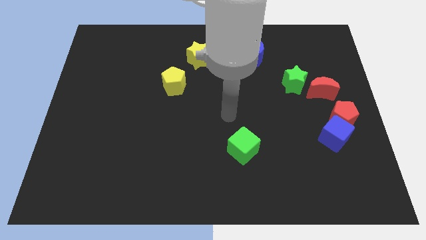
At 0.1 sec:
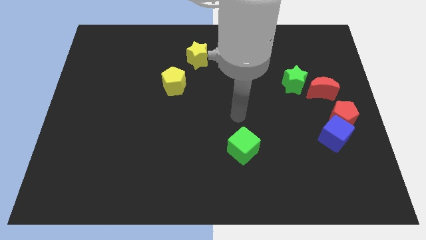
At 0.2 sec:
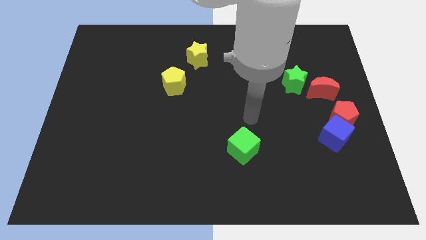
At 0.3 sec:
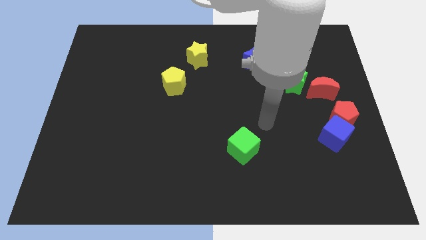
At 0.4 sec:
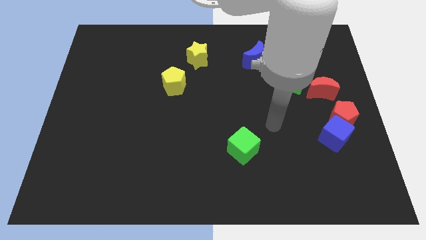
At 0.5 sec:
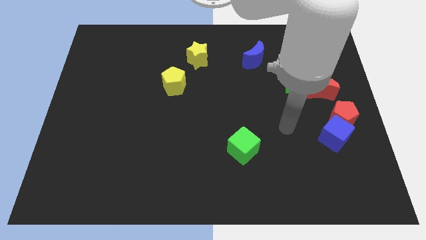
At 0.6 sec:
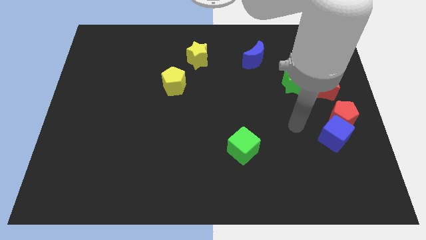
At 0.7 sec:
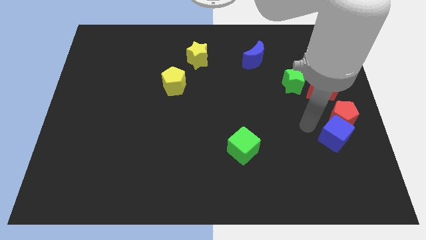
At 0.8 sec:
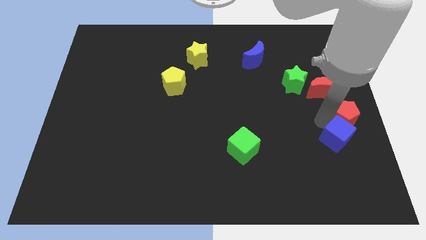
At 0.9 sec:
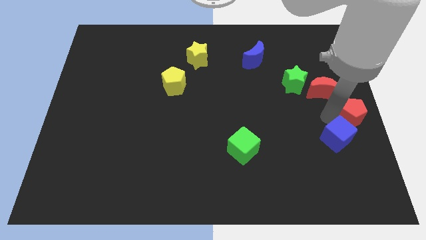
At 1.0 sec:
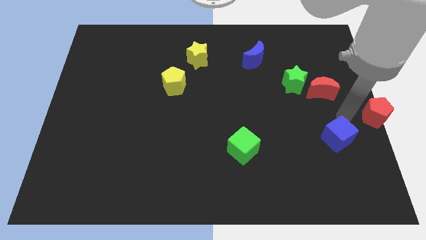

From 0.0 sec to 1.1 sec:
move the blue cube away from the red pentagon

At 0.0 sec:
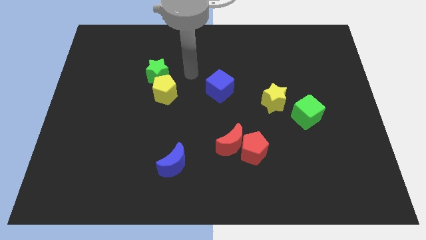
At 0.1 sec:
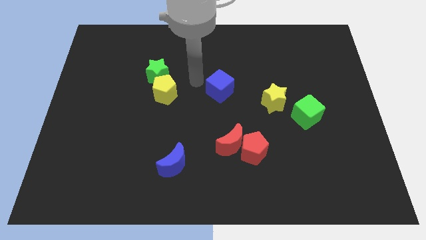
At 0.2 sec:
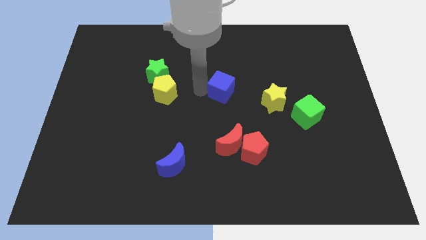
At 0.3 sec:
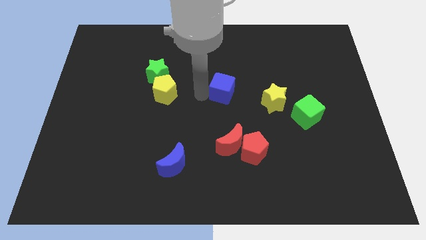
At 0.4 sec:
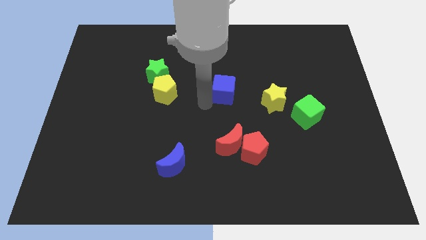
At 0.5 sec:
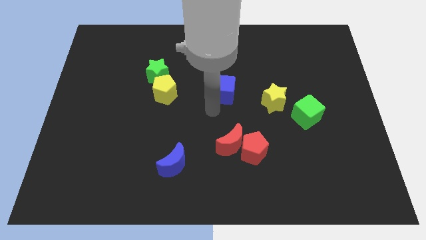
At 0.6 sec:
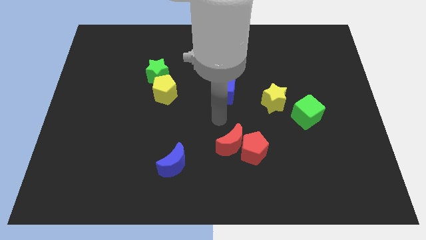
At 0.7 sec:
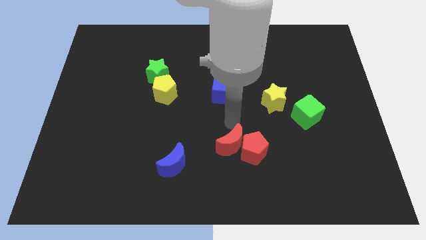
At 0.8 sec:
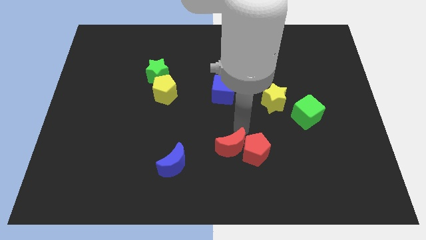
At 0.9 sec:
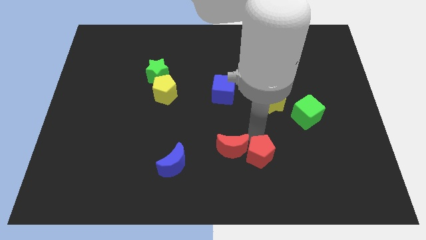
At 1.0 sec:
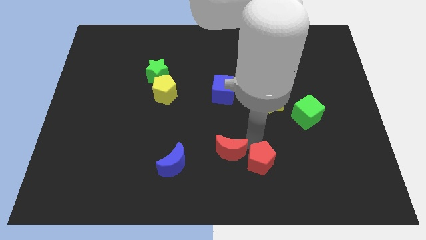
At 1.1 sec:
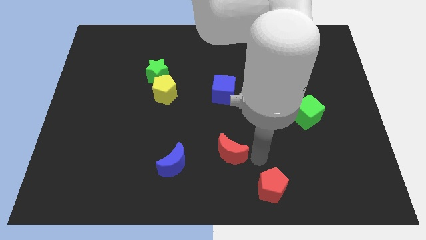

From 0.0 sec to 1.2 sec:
pull the red moon apart from the red pentagon

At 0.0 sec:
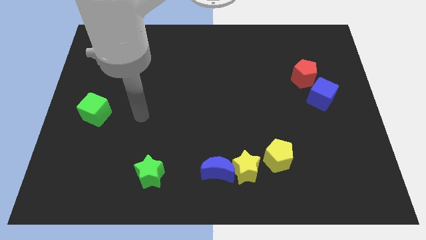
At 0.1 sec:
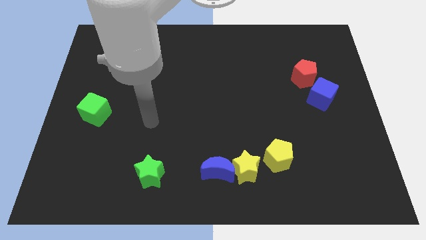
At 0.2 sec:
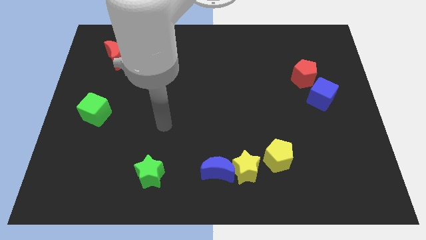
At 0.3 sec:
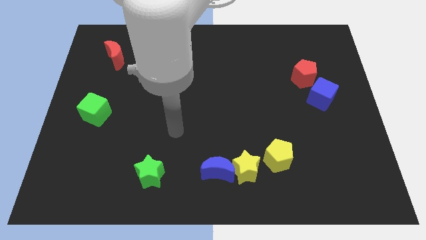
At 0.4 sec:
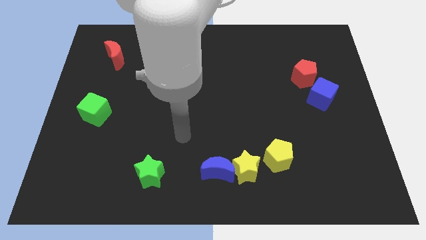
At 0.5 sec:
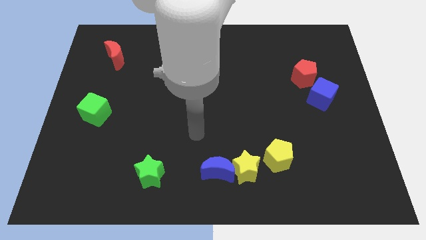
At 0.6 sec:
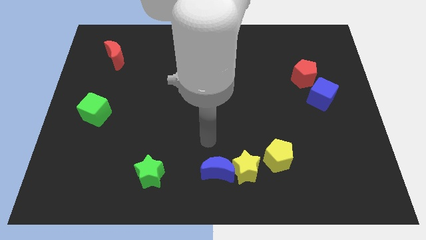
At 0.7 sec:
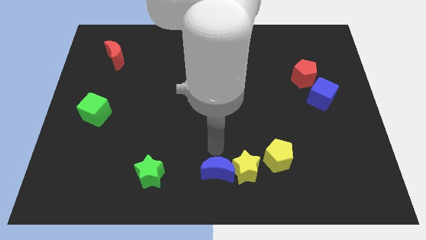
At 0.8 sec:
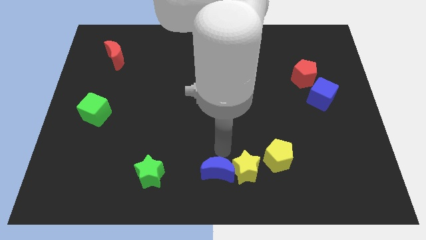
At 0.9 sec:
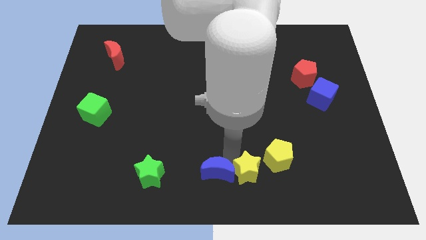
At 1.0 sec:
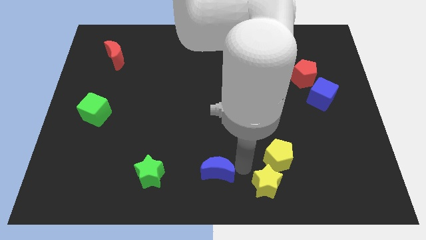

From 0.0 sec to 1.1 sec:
move the blue moon away from the yellow star

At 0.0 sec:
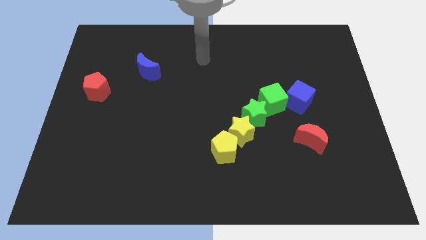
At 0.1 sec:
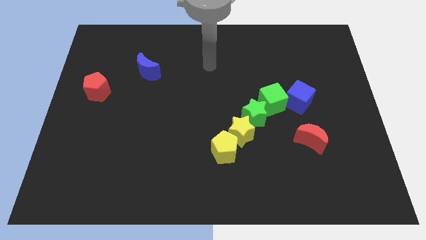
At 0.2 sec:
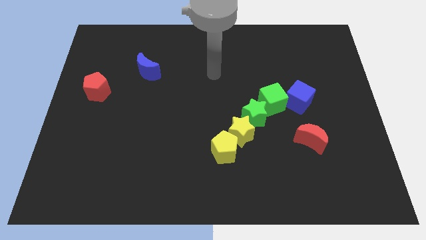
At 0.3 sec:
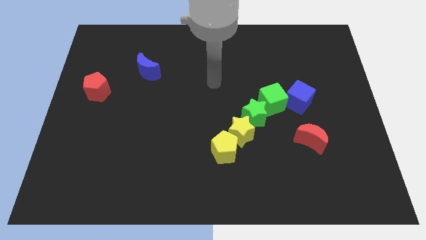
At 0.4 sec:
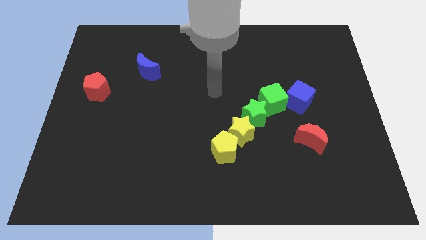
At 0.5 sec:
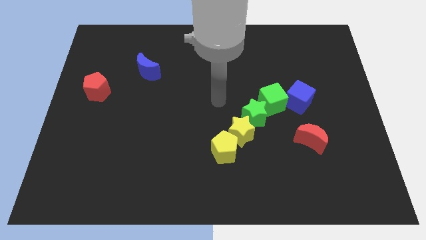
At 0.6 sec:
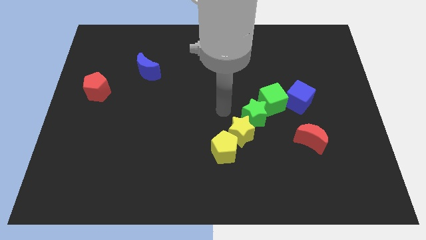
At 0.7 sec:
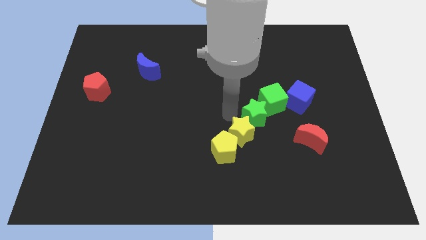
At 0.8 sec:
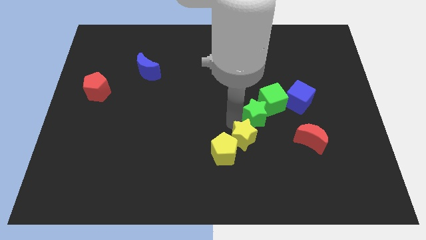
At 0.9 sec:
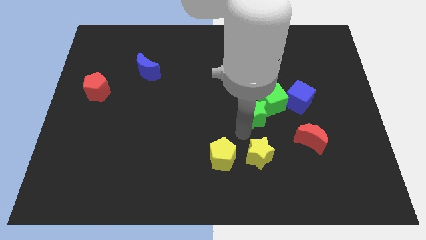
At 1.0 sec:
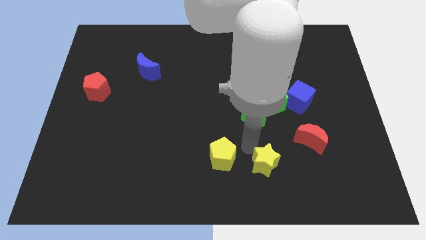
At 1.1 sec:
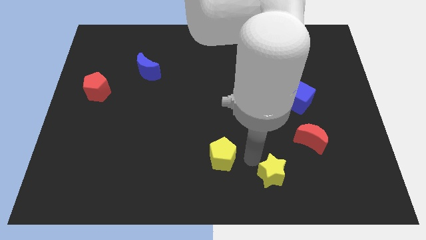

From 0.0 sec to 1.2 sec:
pull the yellow pentagon apart from the yellow star

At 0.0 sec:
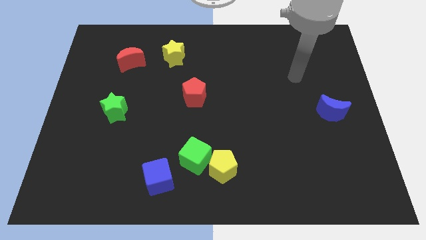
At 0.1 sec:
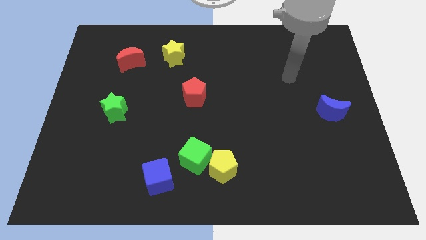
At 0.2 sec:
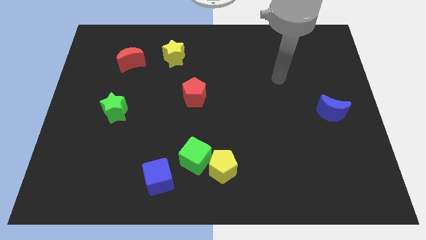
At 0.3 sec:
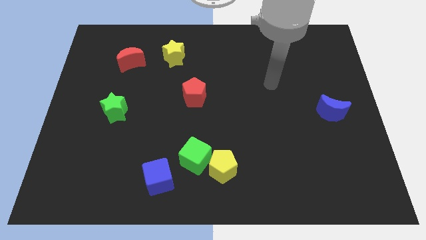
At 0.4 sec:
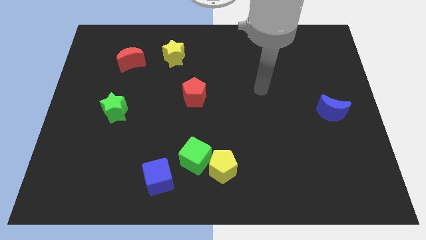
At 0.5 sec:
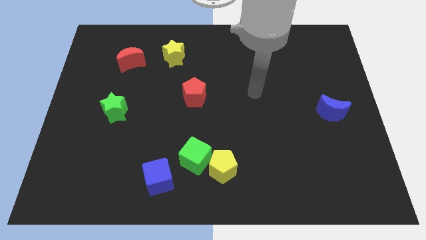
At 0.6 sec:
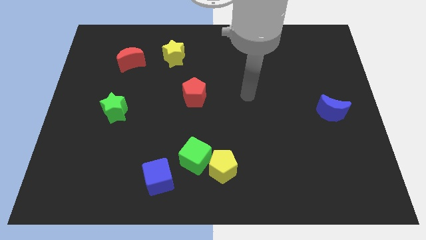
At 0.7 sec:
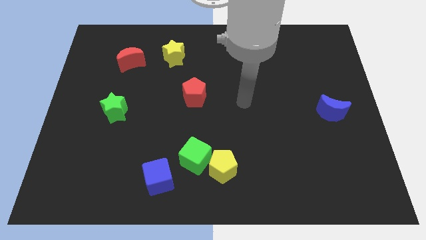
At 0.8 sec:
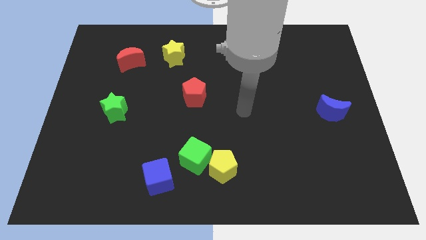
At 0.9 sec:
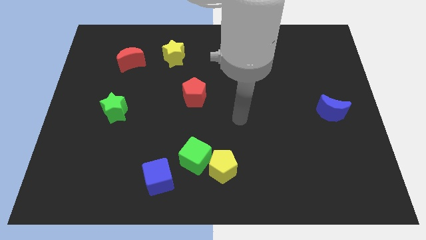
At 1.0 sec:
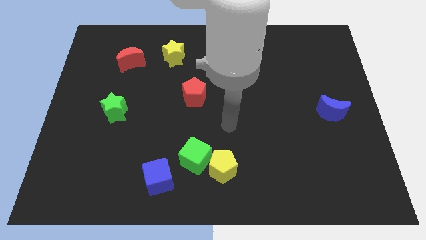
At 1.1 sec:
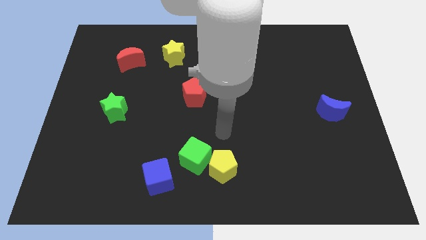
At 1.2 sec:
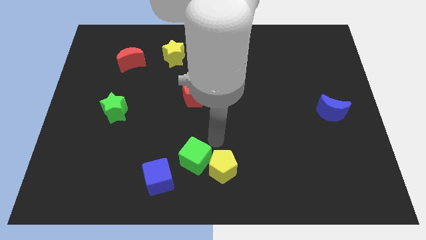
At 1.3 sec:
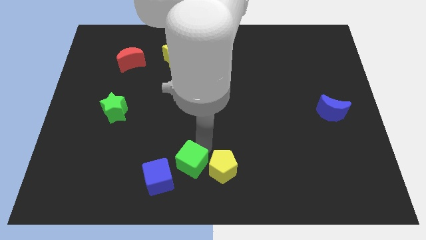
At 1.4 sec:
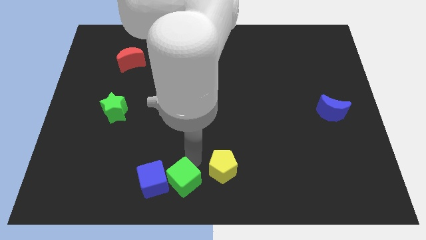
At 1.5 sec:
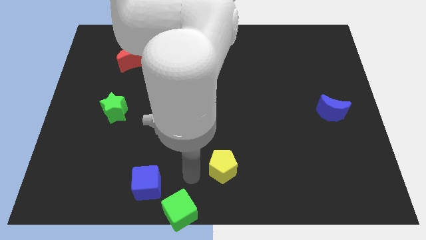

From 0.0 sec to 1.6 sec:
pull the yellow pentagon apart from the green cube

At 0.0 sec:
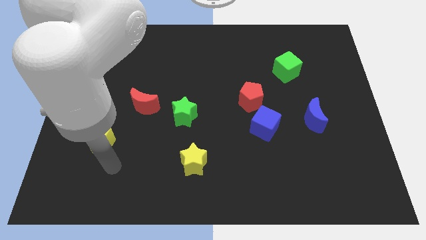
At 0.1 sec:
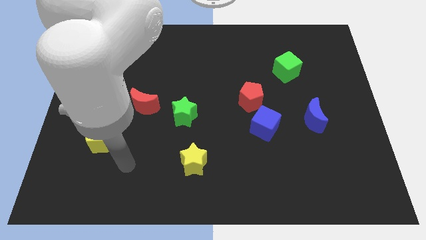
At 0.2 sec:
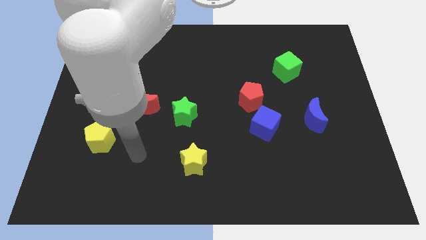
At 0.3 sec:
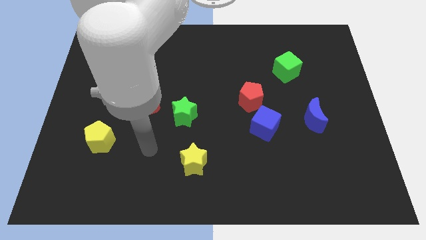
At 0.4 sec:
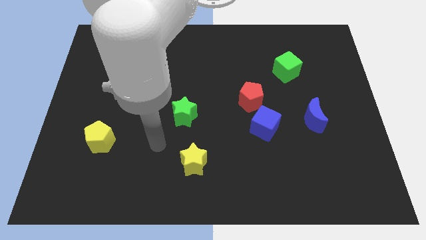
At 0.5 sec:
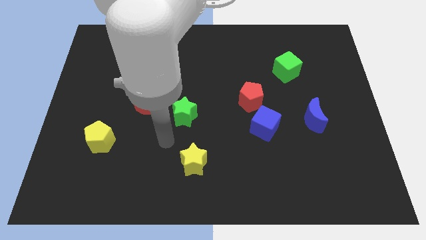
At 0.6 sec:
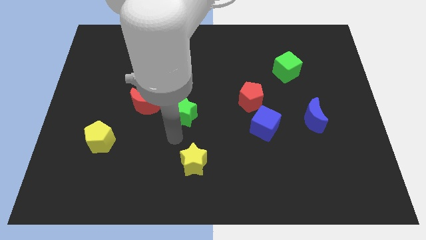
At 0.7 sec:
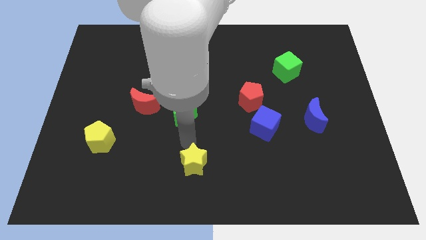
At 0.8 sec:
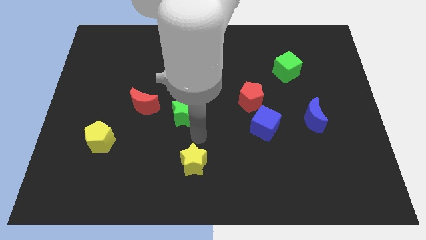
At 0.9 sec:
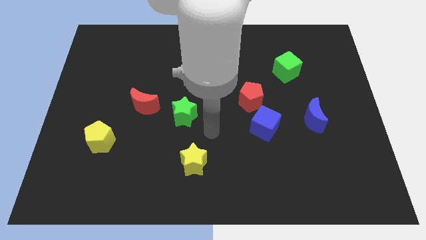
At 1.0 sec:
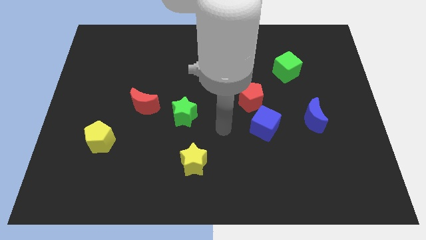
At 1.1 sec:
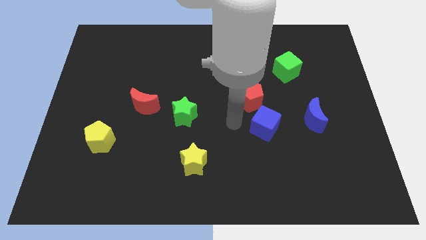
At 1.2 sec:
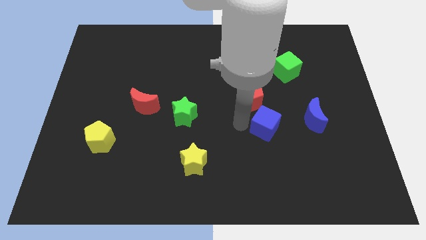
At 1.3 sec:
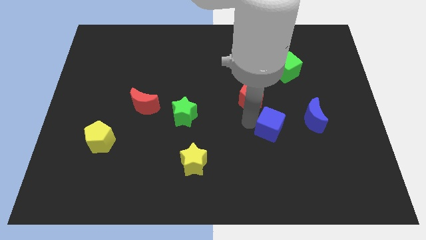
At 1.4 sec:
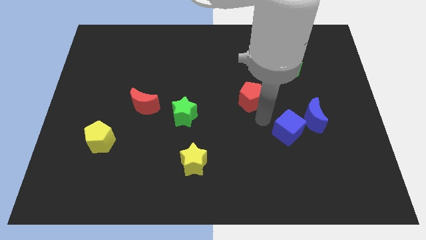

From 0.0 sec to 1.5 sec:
move the red pentagon away from the blue cube

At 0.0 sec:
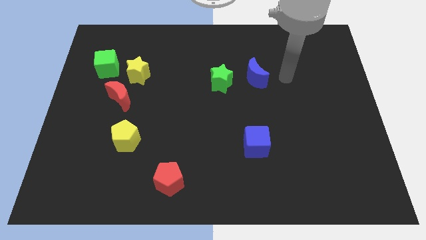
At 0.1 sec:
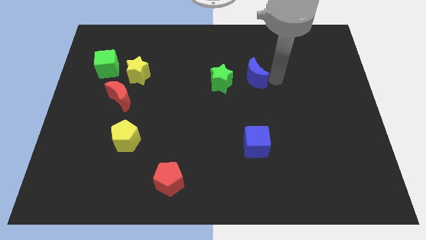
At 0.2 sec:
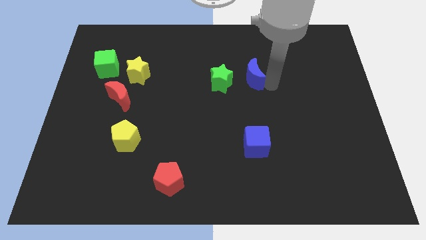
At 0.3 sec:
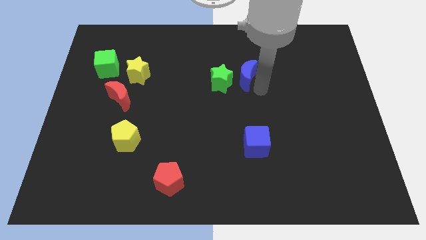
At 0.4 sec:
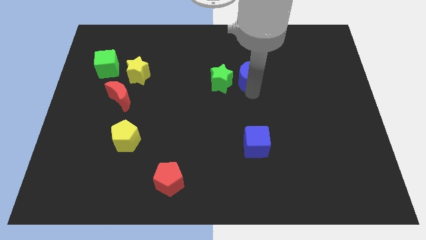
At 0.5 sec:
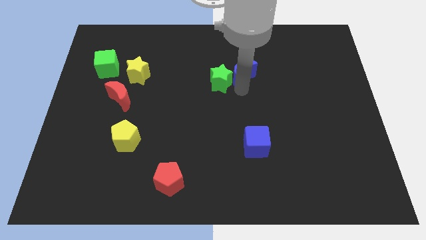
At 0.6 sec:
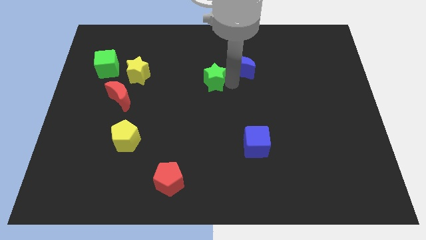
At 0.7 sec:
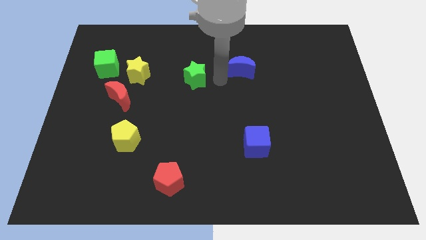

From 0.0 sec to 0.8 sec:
move the blue moon away from the green star

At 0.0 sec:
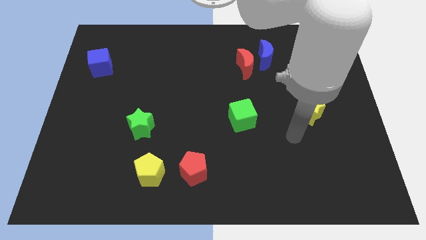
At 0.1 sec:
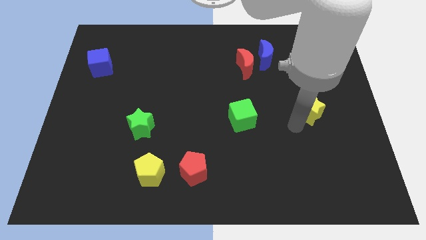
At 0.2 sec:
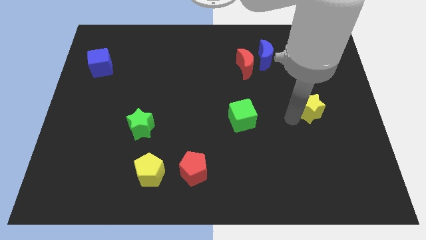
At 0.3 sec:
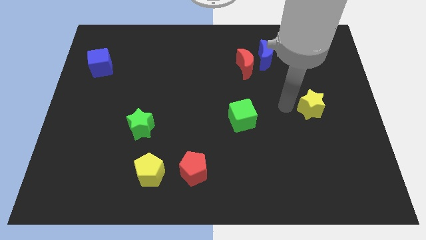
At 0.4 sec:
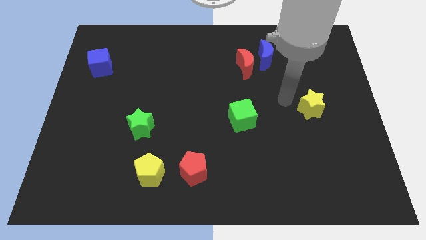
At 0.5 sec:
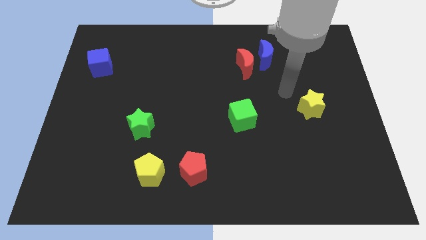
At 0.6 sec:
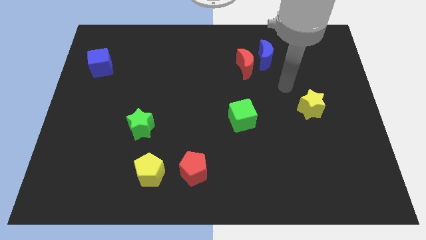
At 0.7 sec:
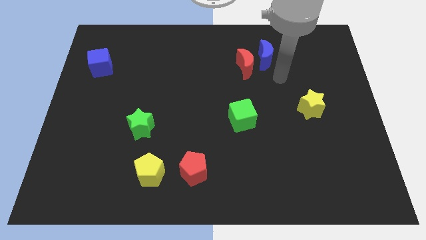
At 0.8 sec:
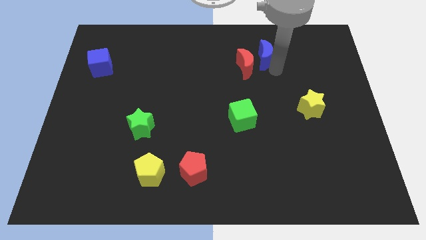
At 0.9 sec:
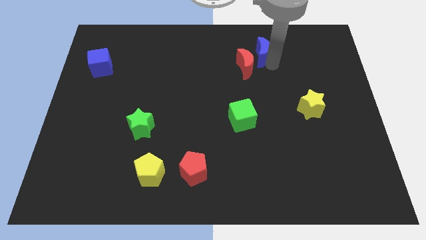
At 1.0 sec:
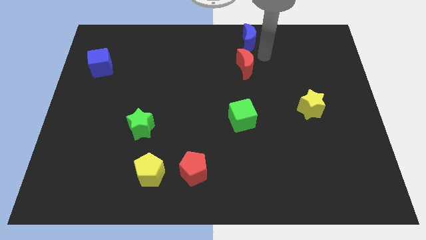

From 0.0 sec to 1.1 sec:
pull the red moon apart from the blue moon
